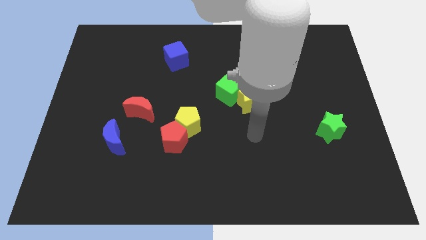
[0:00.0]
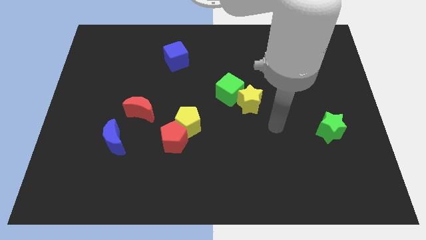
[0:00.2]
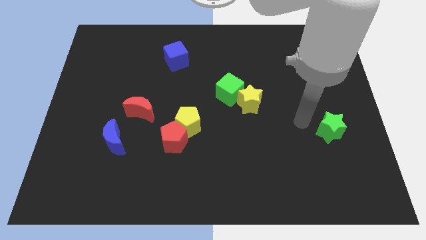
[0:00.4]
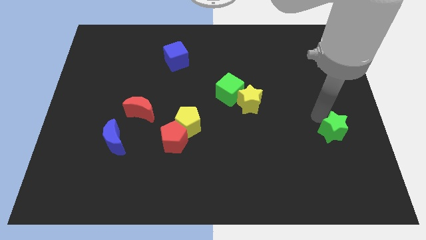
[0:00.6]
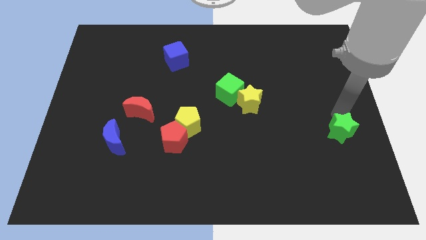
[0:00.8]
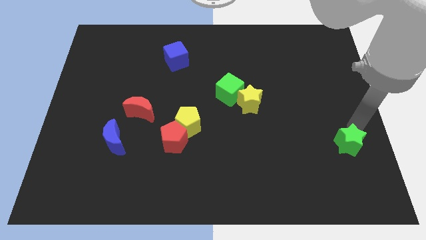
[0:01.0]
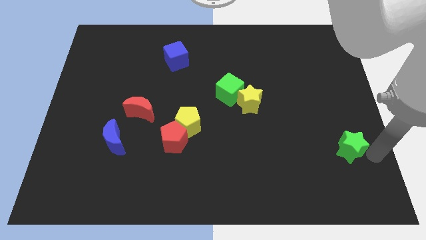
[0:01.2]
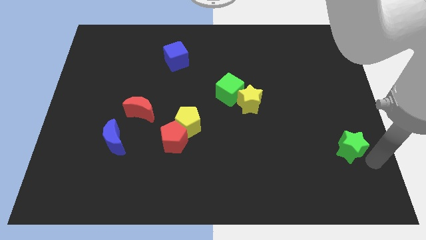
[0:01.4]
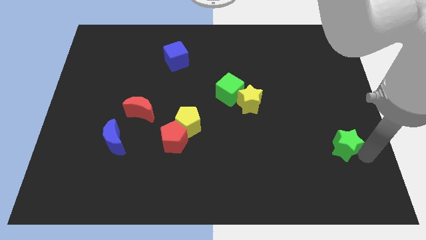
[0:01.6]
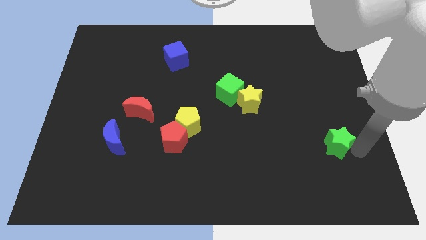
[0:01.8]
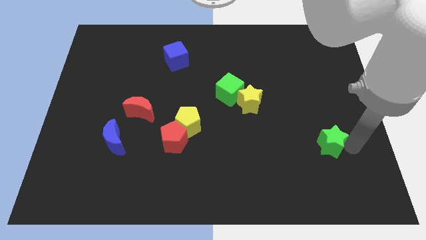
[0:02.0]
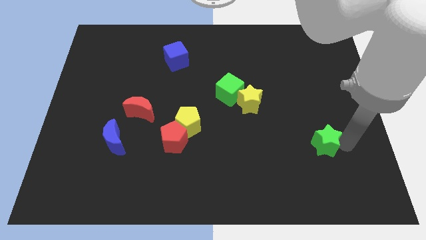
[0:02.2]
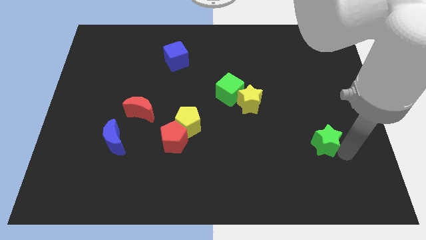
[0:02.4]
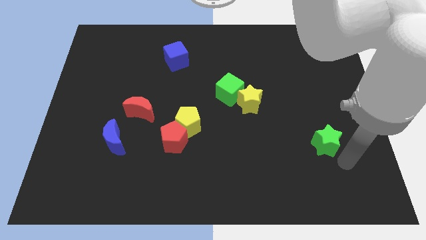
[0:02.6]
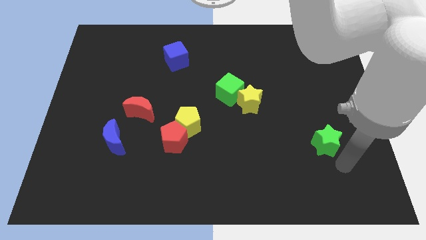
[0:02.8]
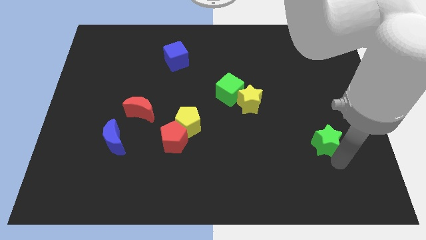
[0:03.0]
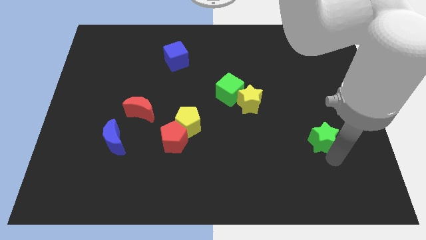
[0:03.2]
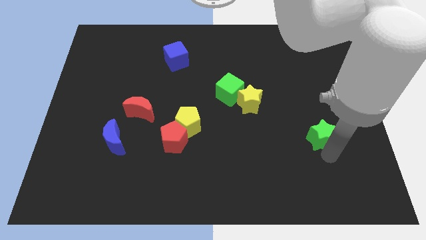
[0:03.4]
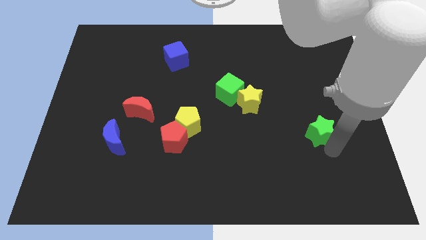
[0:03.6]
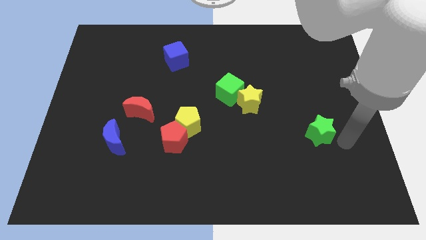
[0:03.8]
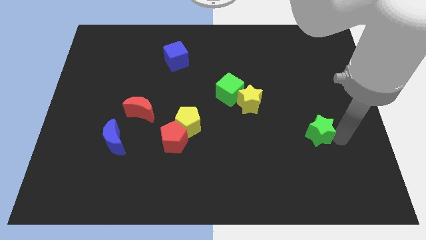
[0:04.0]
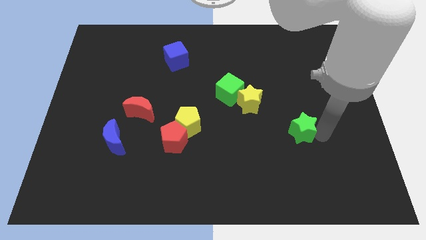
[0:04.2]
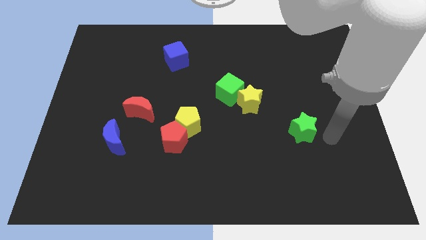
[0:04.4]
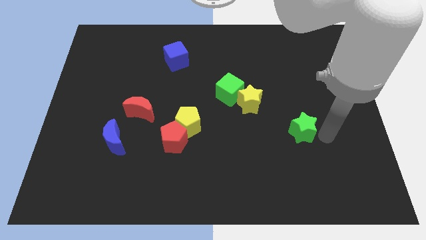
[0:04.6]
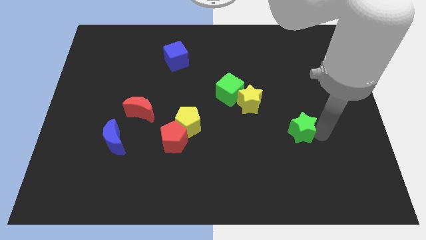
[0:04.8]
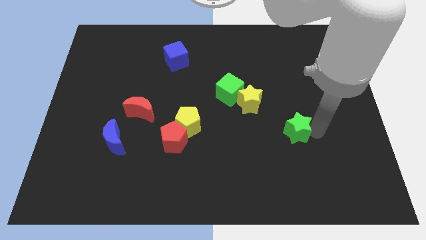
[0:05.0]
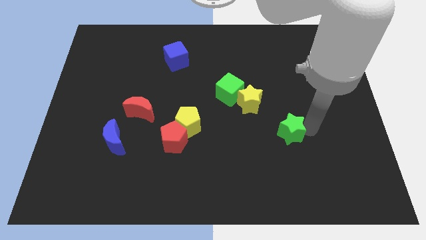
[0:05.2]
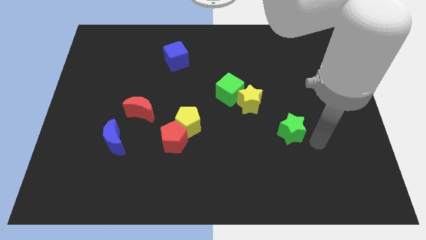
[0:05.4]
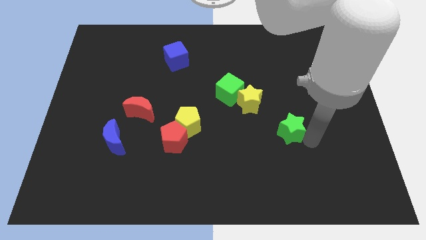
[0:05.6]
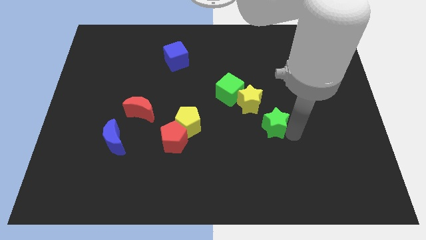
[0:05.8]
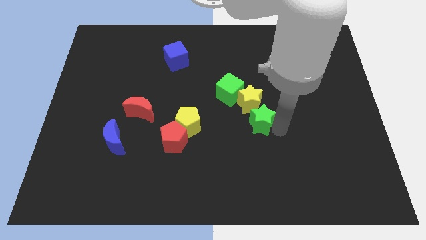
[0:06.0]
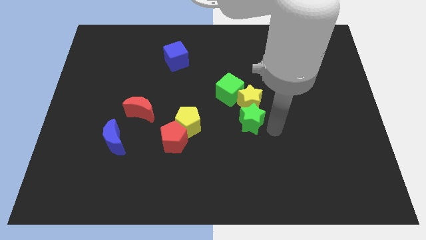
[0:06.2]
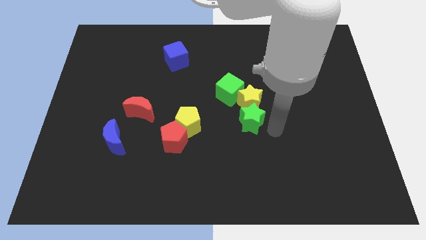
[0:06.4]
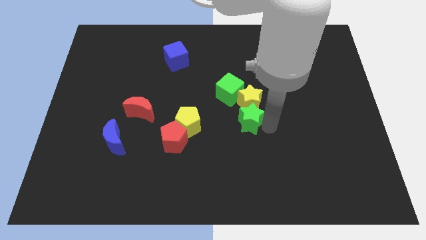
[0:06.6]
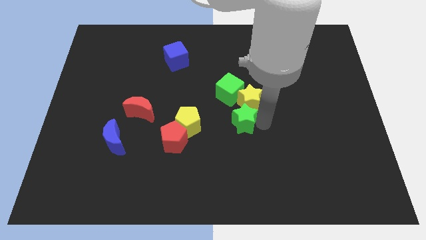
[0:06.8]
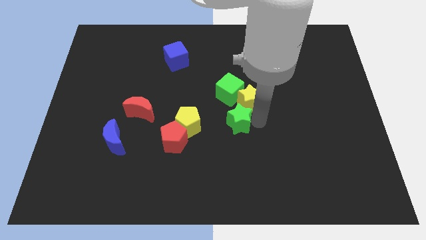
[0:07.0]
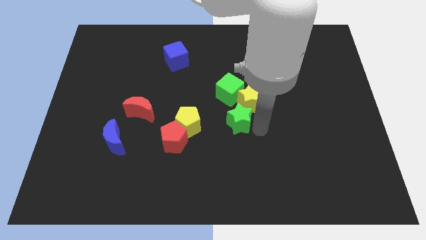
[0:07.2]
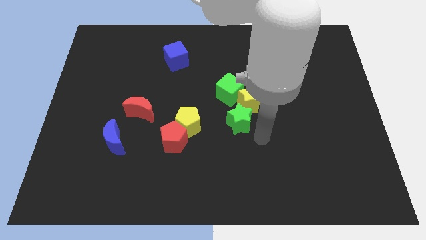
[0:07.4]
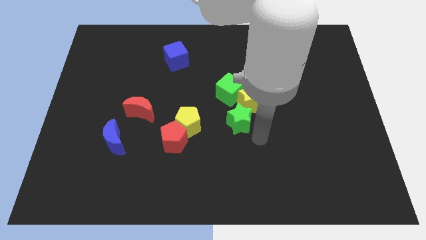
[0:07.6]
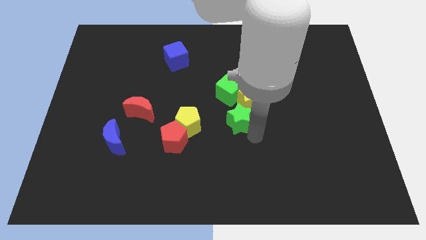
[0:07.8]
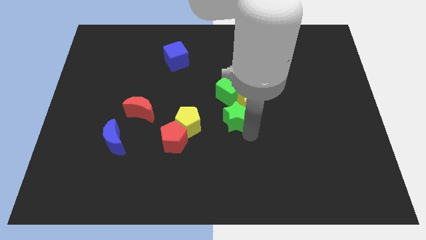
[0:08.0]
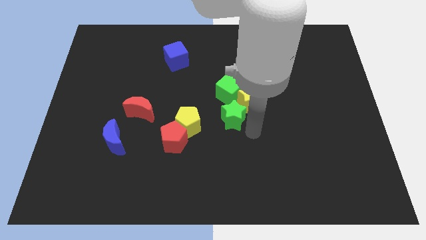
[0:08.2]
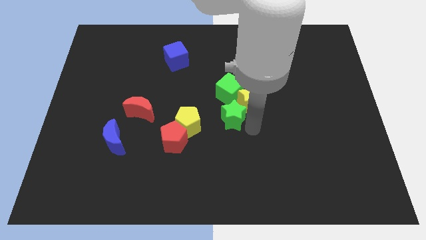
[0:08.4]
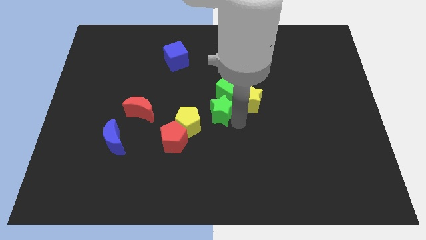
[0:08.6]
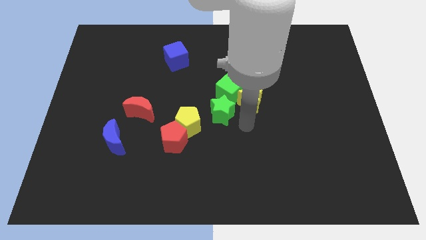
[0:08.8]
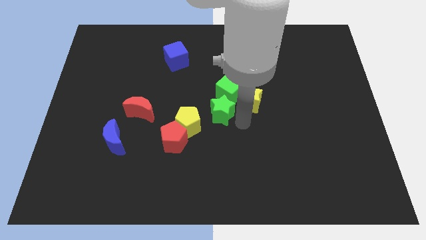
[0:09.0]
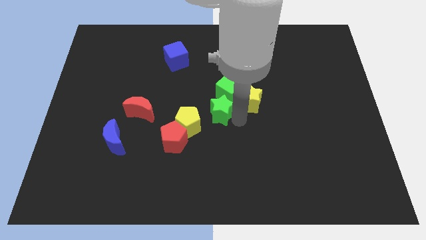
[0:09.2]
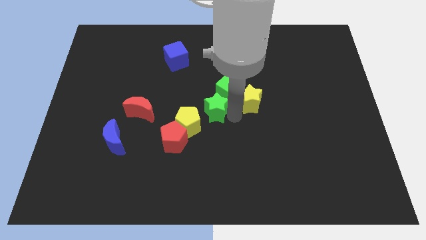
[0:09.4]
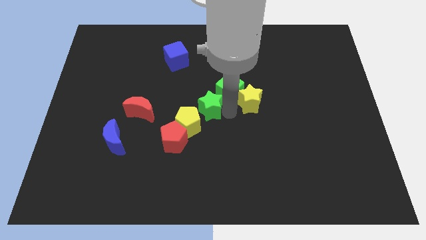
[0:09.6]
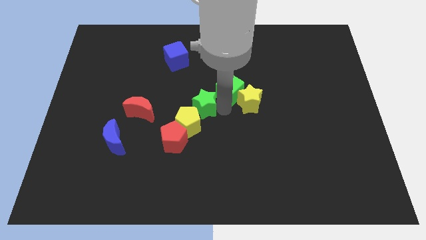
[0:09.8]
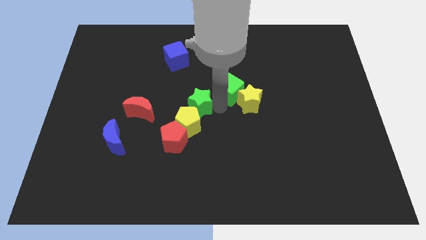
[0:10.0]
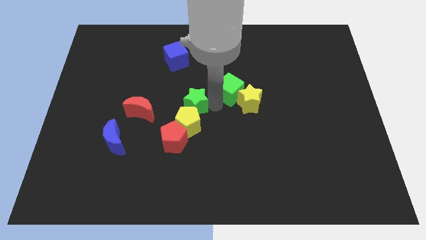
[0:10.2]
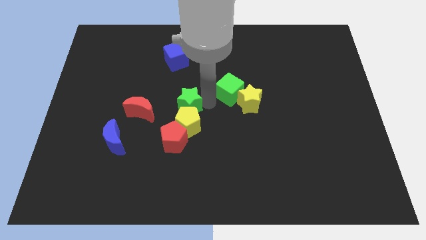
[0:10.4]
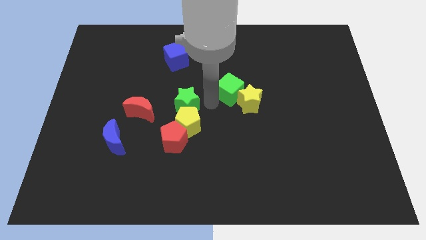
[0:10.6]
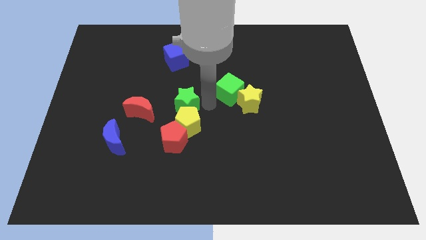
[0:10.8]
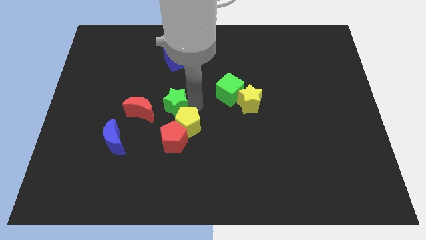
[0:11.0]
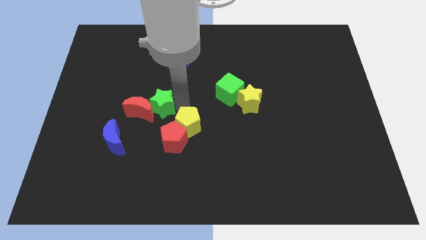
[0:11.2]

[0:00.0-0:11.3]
move the green star next to the red moon

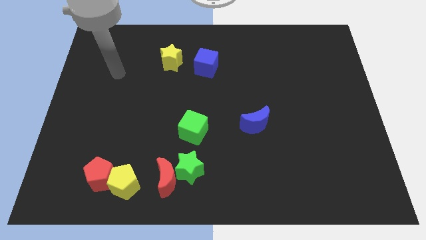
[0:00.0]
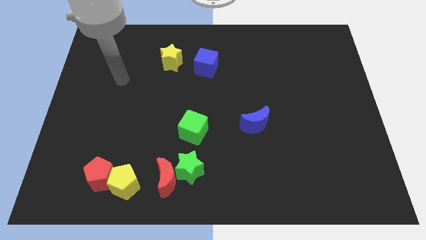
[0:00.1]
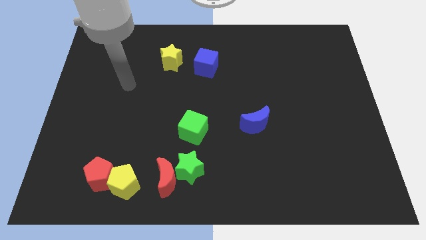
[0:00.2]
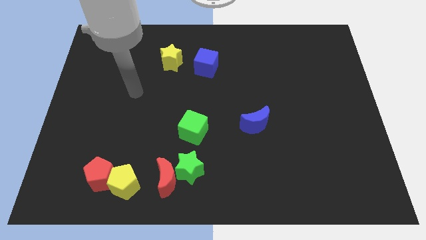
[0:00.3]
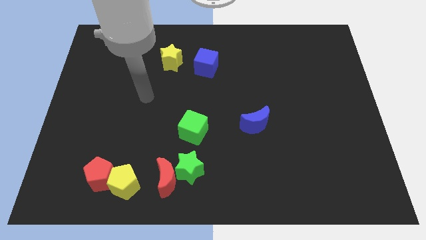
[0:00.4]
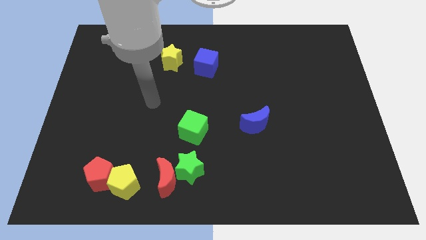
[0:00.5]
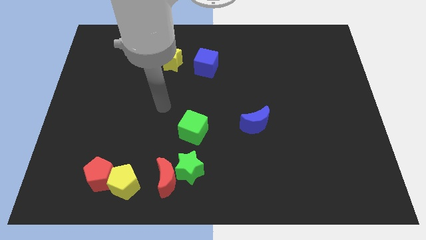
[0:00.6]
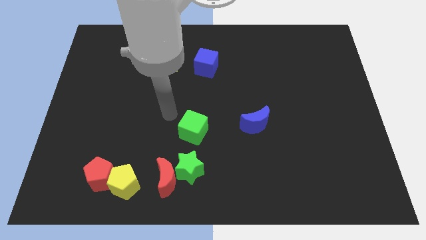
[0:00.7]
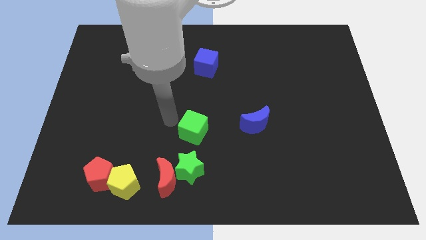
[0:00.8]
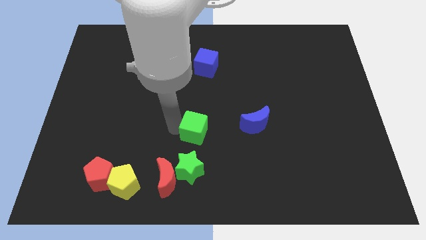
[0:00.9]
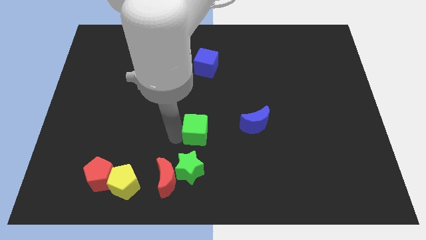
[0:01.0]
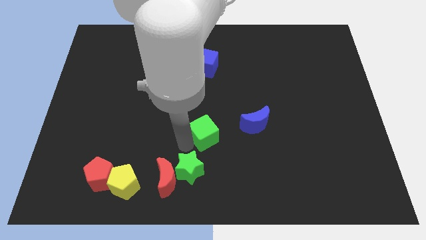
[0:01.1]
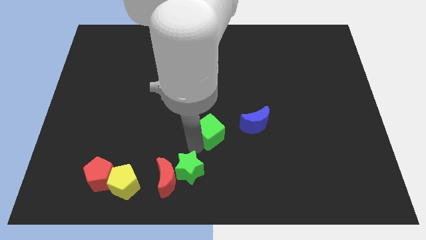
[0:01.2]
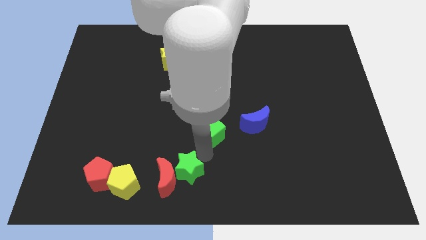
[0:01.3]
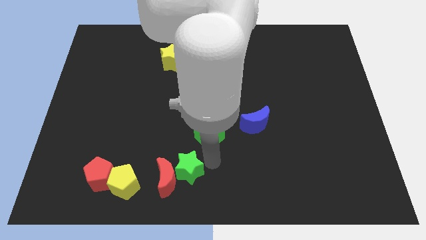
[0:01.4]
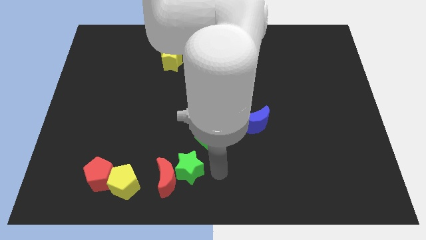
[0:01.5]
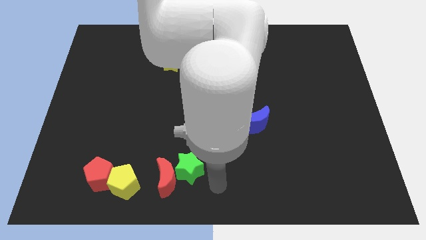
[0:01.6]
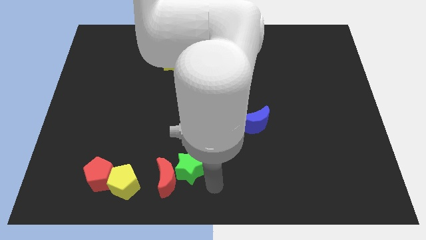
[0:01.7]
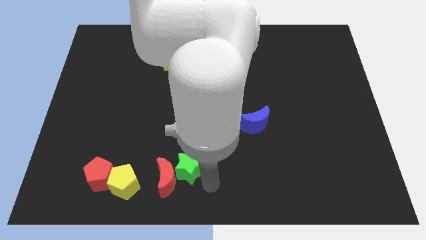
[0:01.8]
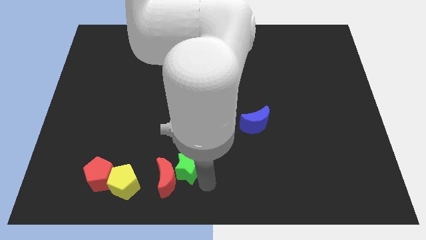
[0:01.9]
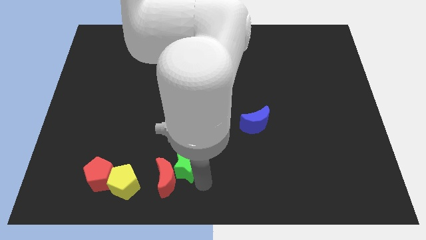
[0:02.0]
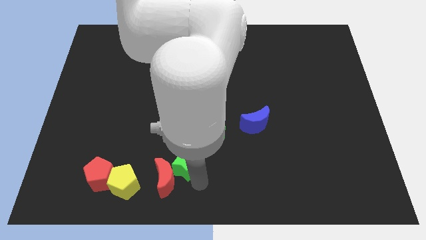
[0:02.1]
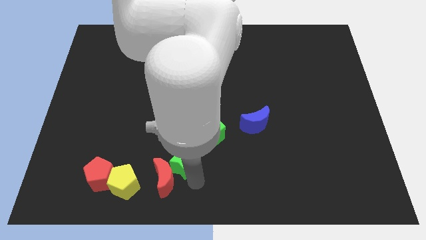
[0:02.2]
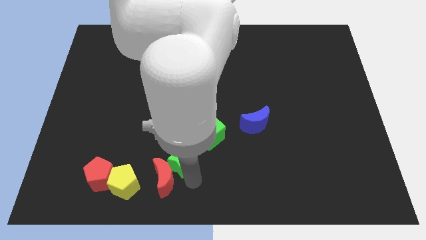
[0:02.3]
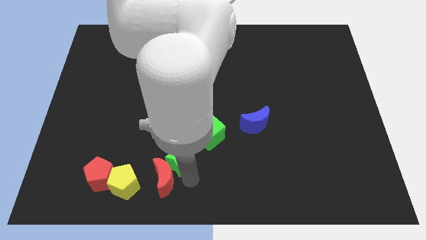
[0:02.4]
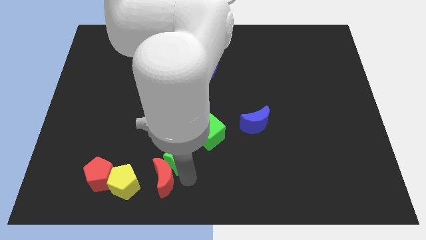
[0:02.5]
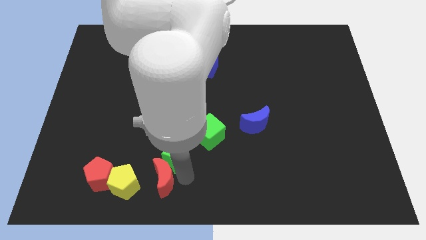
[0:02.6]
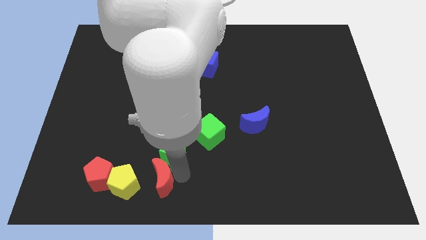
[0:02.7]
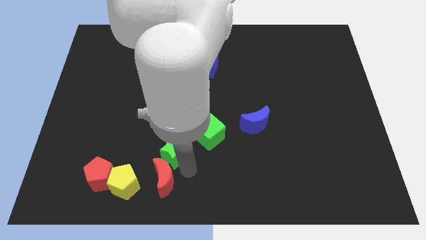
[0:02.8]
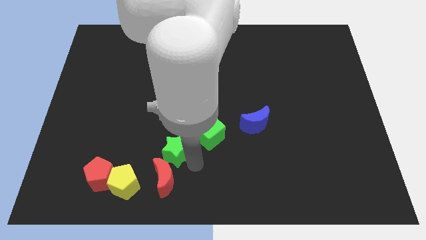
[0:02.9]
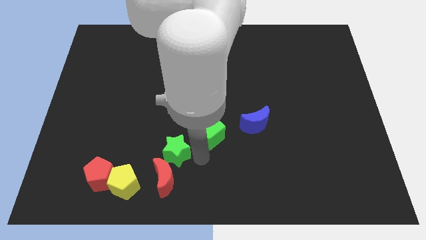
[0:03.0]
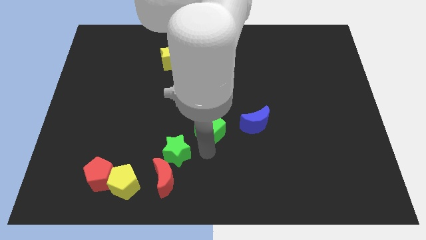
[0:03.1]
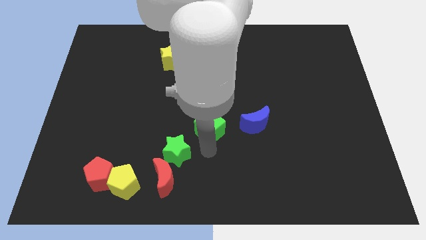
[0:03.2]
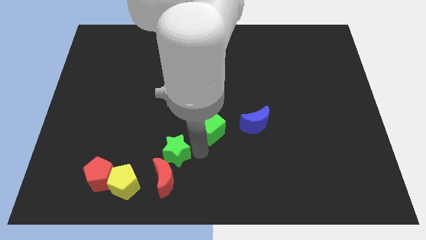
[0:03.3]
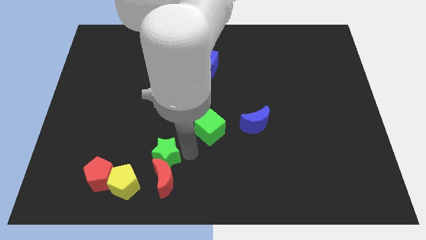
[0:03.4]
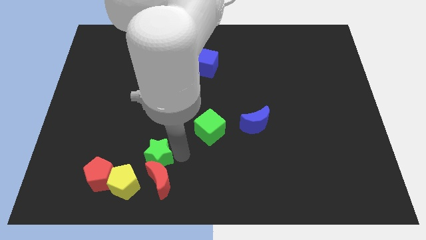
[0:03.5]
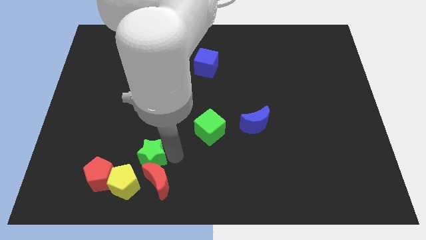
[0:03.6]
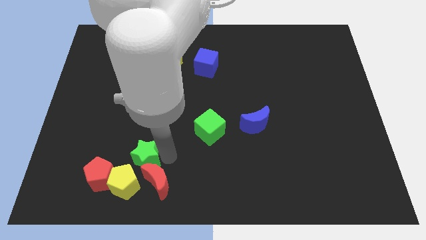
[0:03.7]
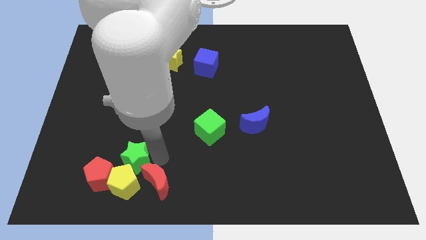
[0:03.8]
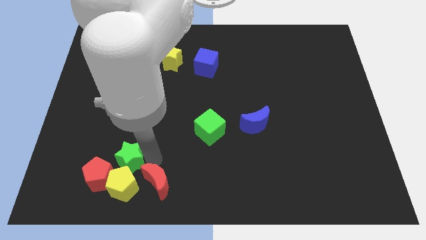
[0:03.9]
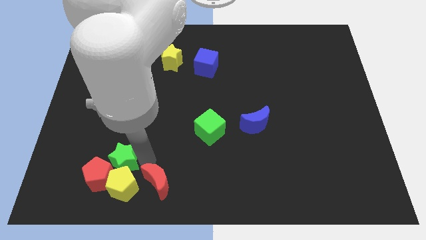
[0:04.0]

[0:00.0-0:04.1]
push the green star next to the red pentagon
